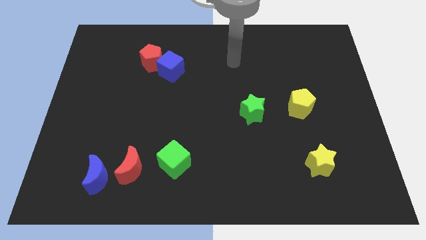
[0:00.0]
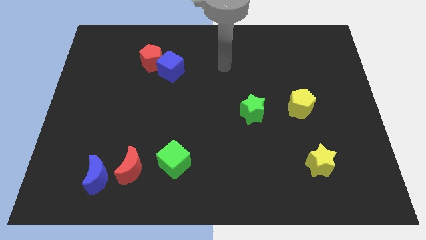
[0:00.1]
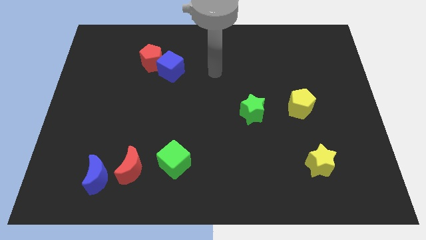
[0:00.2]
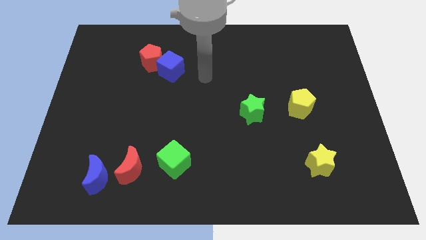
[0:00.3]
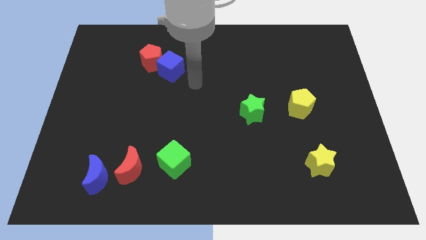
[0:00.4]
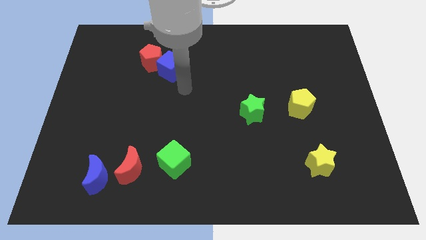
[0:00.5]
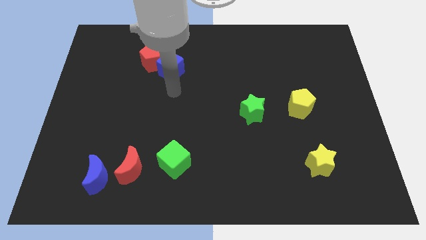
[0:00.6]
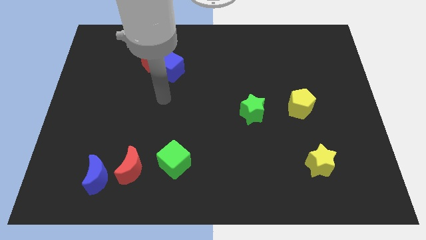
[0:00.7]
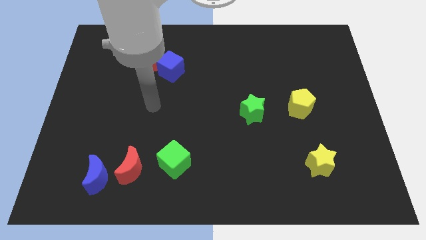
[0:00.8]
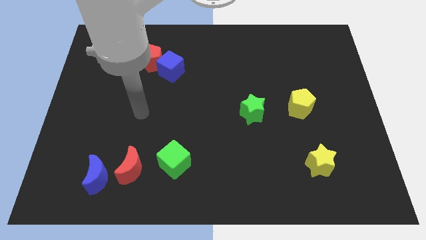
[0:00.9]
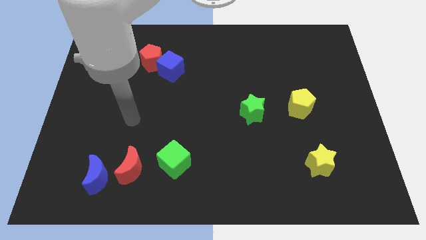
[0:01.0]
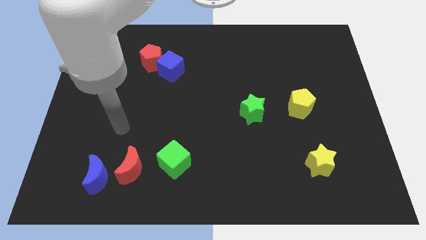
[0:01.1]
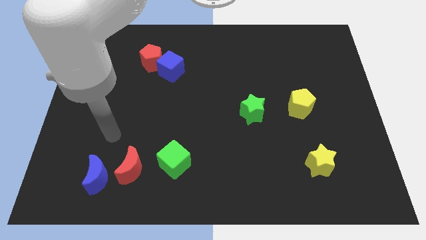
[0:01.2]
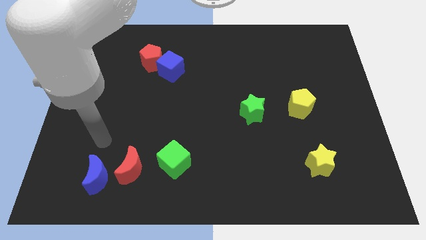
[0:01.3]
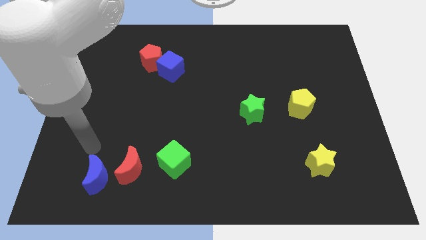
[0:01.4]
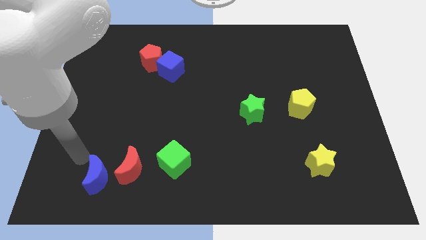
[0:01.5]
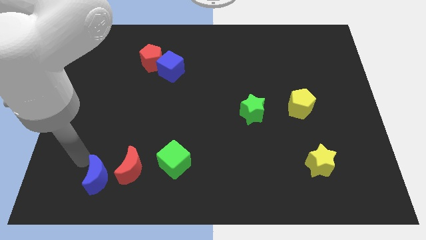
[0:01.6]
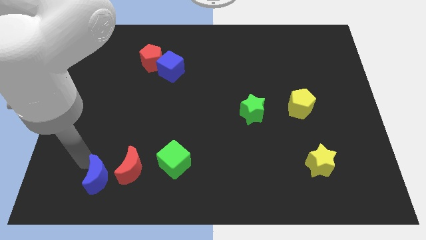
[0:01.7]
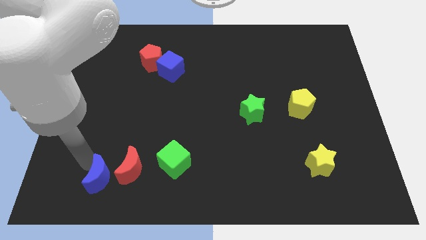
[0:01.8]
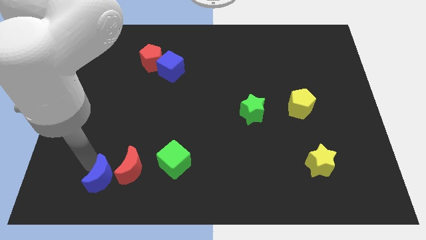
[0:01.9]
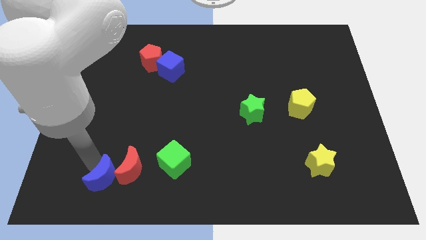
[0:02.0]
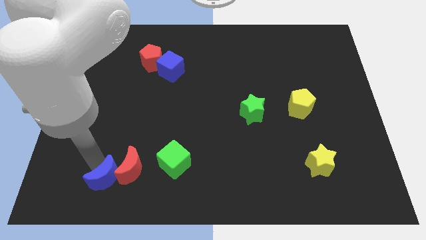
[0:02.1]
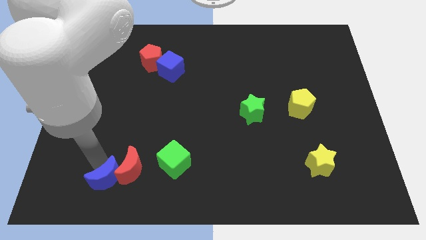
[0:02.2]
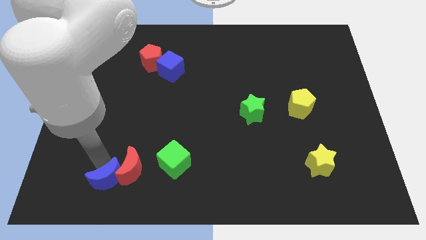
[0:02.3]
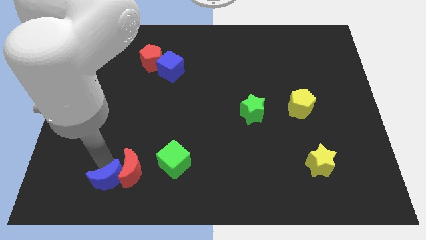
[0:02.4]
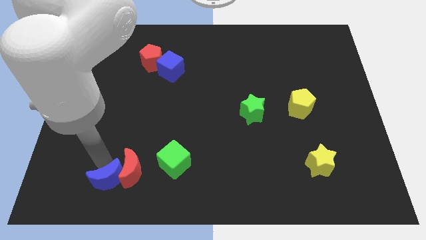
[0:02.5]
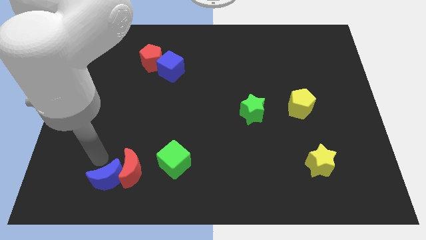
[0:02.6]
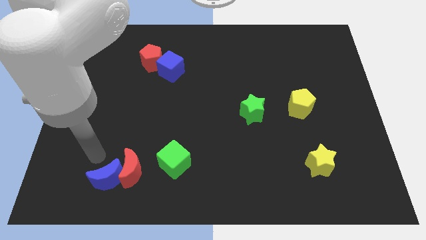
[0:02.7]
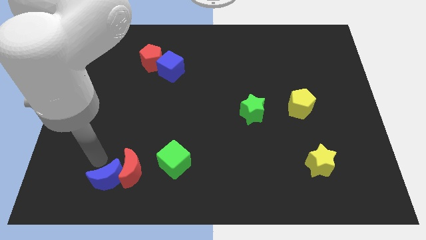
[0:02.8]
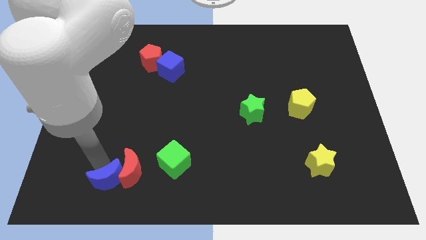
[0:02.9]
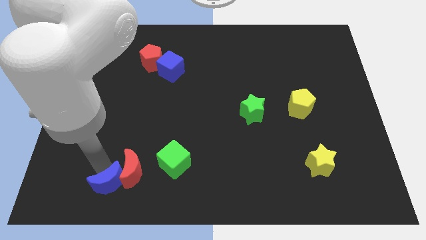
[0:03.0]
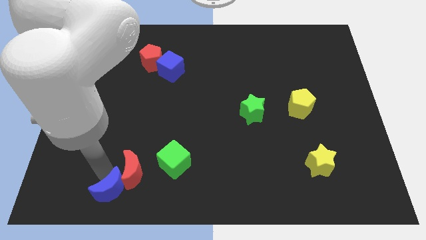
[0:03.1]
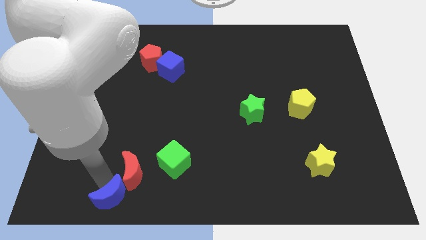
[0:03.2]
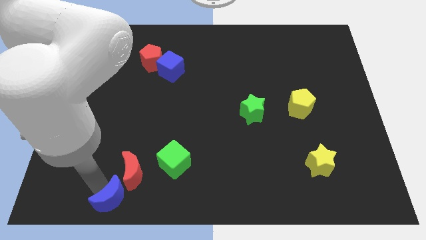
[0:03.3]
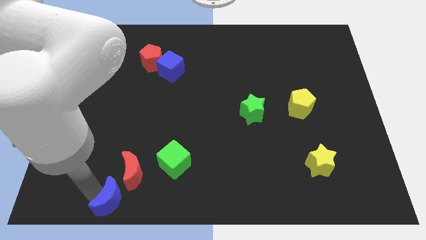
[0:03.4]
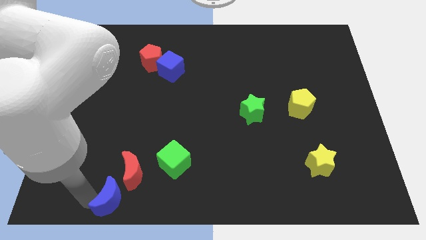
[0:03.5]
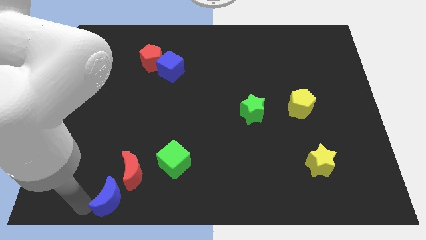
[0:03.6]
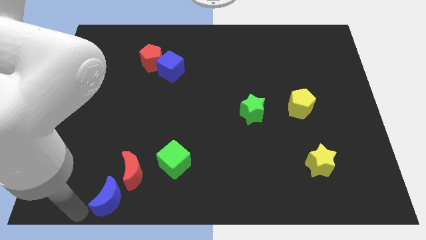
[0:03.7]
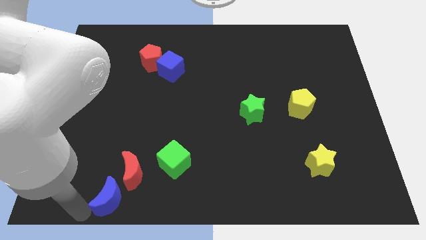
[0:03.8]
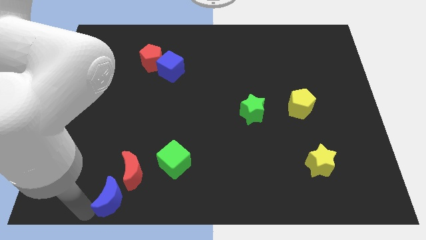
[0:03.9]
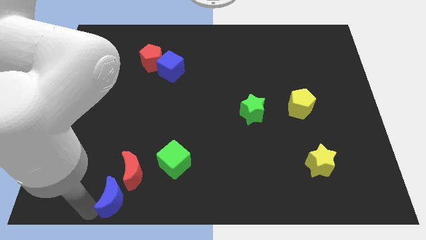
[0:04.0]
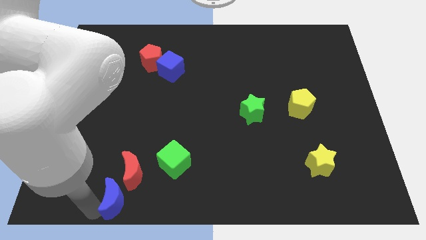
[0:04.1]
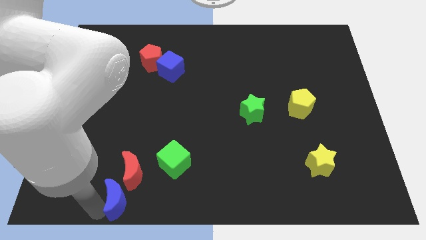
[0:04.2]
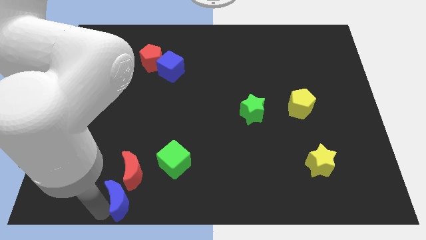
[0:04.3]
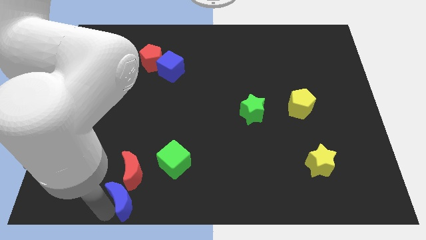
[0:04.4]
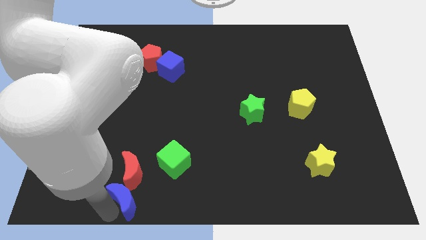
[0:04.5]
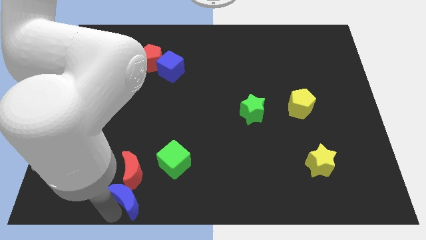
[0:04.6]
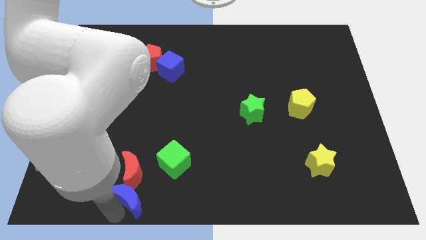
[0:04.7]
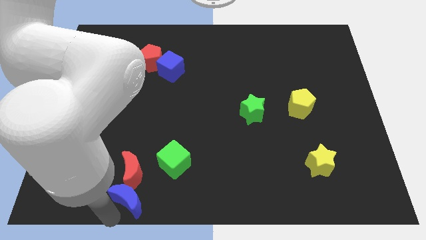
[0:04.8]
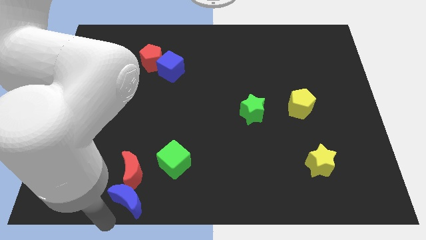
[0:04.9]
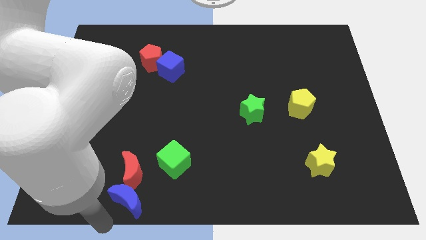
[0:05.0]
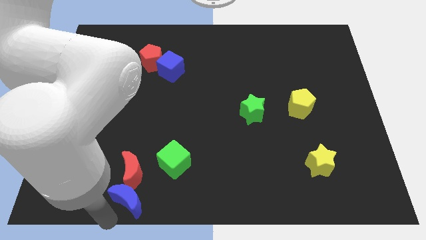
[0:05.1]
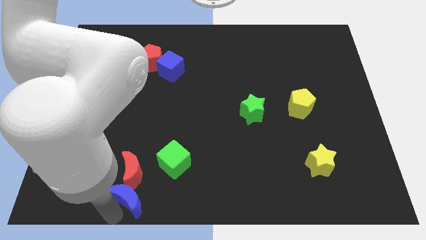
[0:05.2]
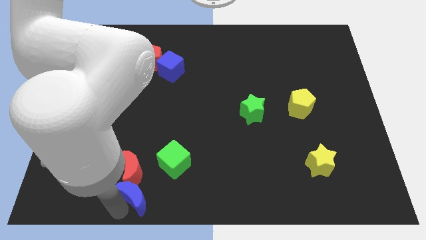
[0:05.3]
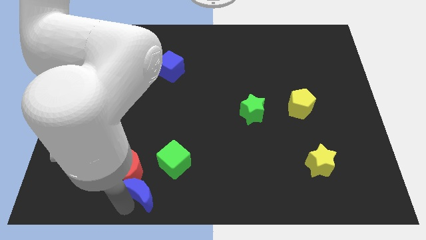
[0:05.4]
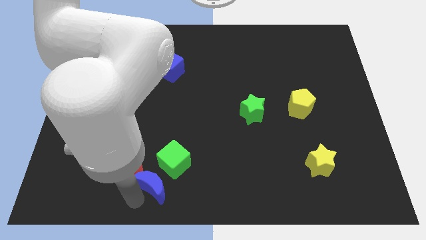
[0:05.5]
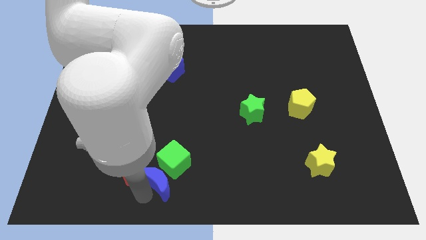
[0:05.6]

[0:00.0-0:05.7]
push the blue moon next to the green cube
